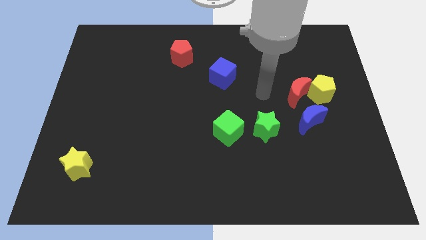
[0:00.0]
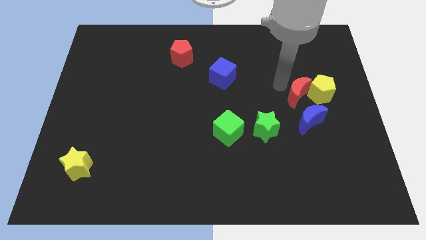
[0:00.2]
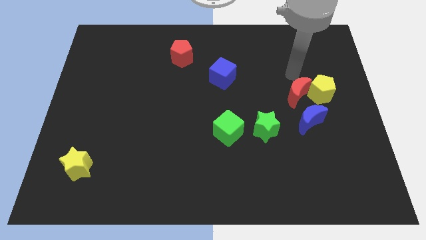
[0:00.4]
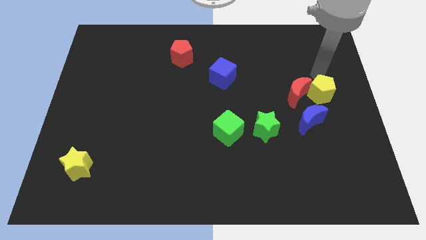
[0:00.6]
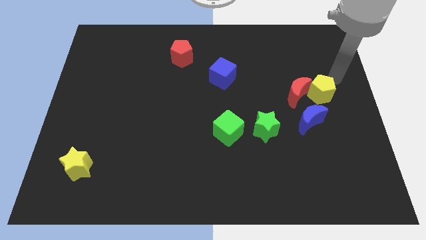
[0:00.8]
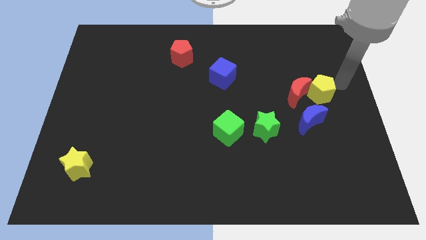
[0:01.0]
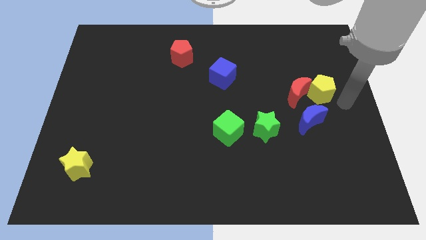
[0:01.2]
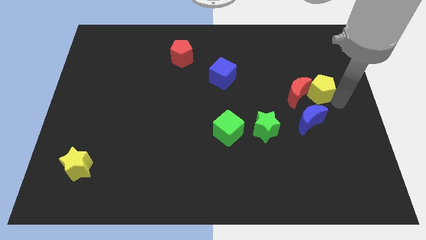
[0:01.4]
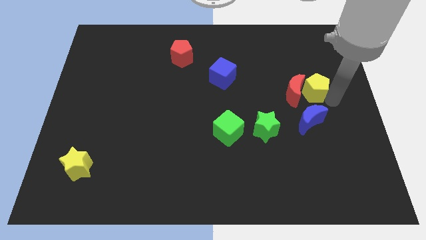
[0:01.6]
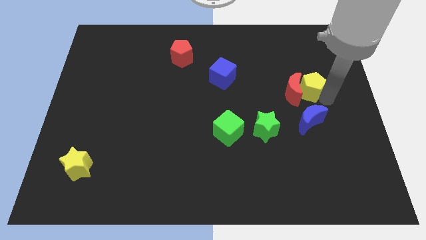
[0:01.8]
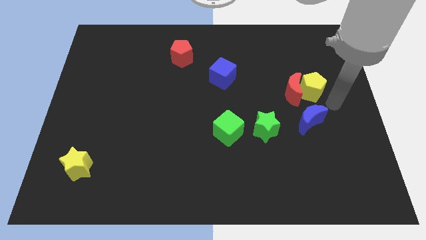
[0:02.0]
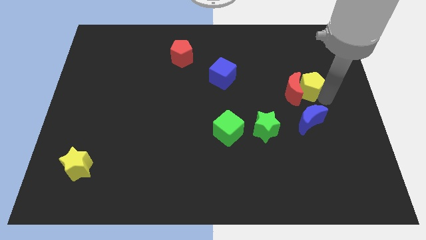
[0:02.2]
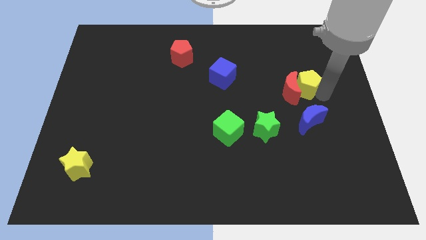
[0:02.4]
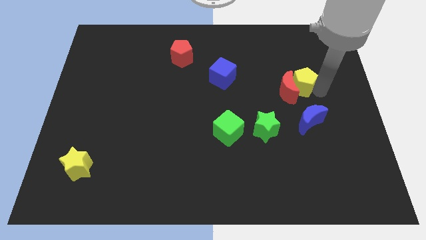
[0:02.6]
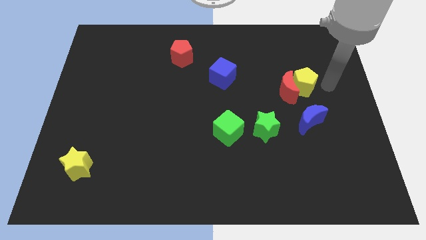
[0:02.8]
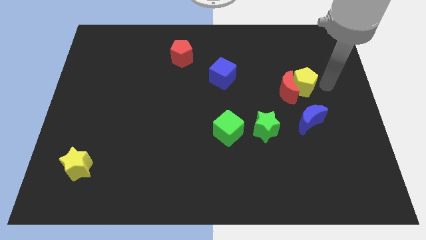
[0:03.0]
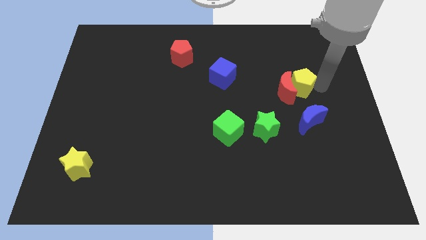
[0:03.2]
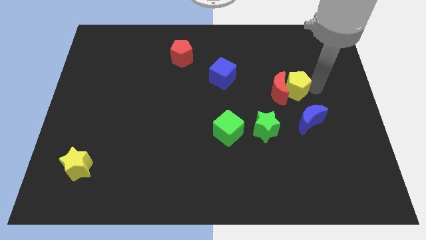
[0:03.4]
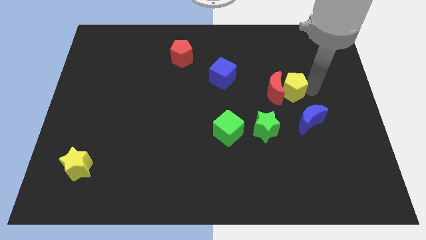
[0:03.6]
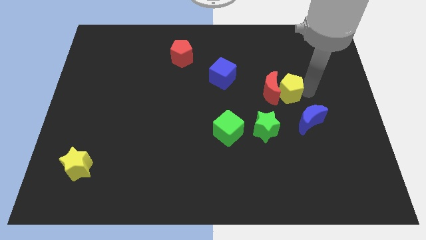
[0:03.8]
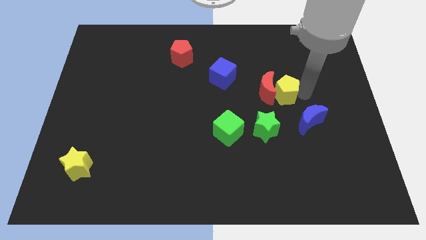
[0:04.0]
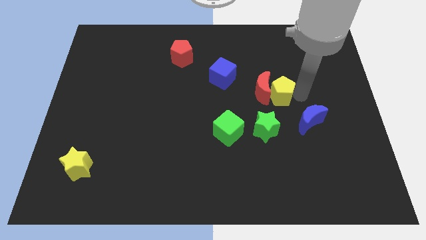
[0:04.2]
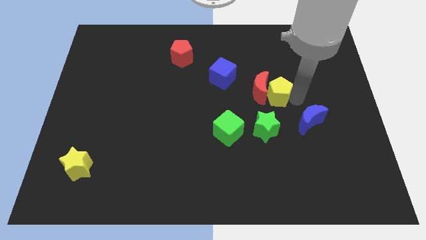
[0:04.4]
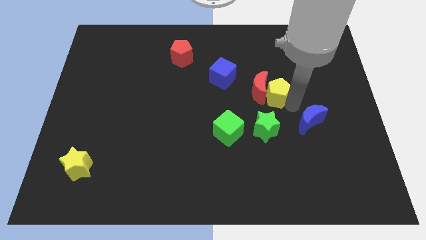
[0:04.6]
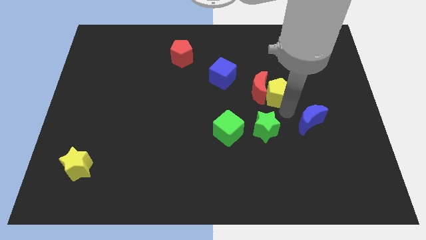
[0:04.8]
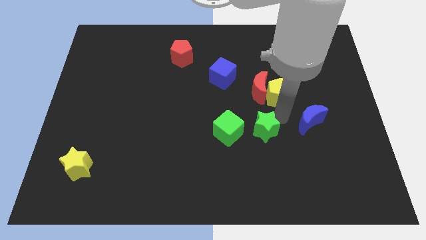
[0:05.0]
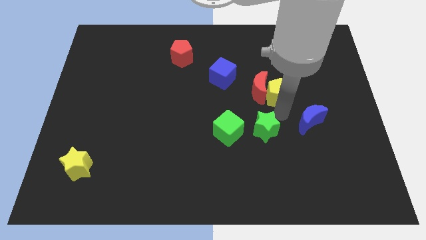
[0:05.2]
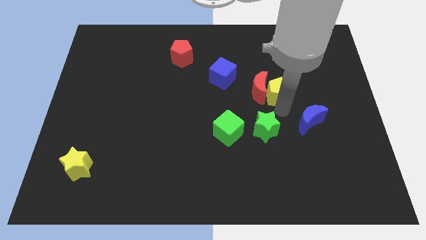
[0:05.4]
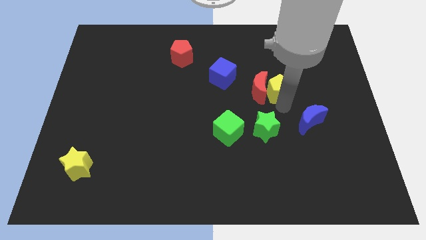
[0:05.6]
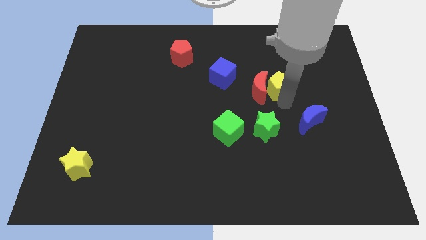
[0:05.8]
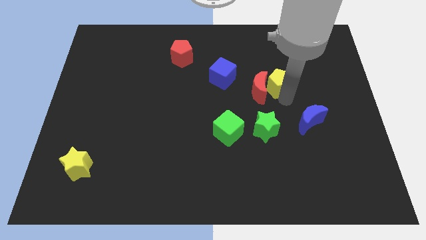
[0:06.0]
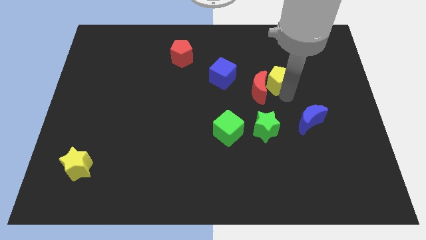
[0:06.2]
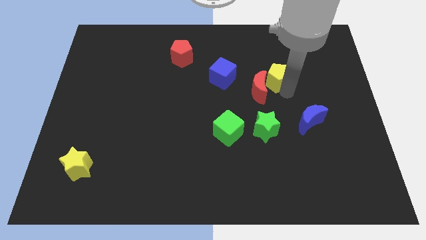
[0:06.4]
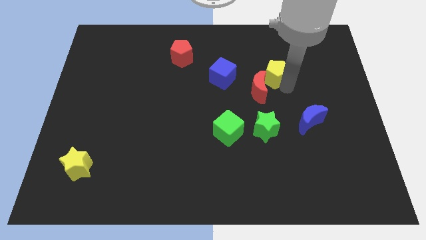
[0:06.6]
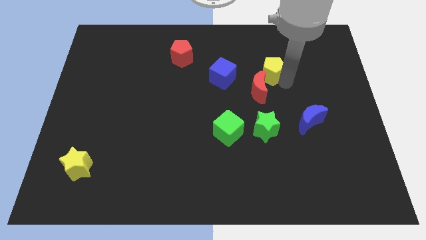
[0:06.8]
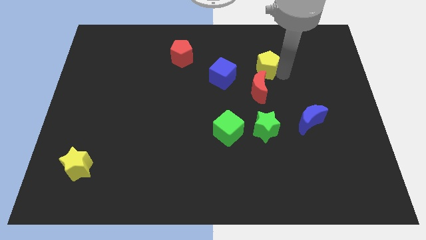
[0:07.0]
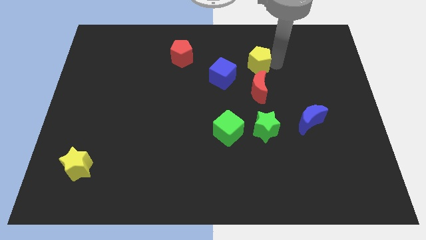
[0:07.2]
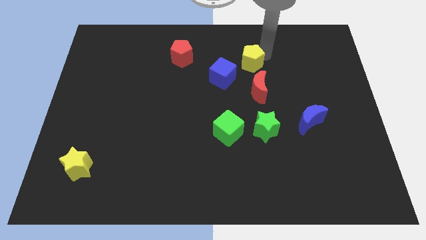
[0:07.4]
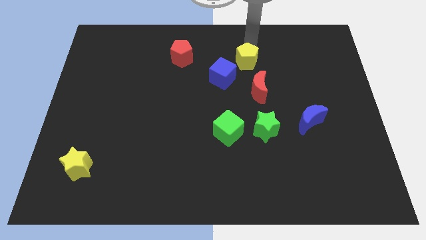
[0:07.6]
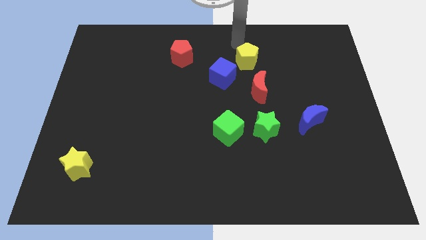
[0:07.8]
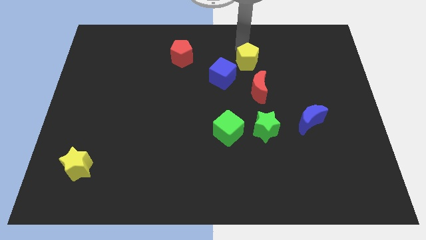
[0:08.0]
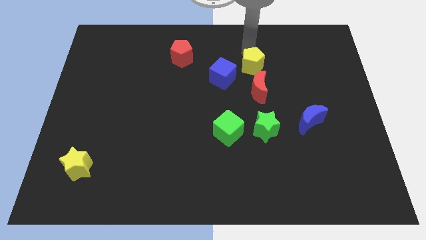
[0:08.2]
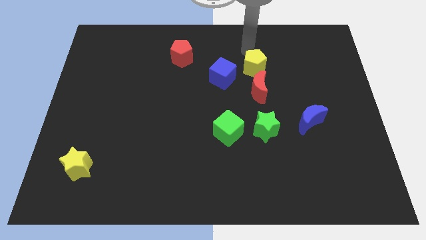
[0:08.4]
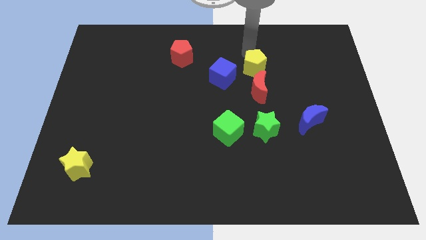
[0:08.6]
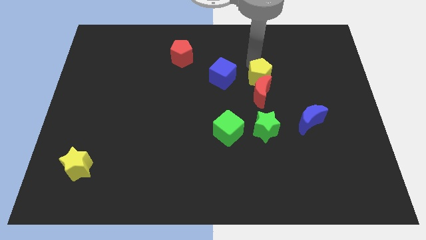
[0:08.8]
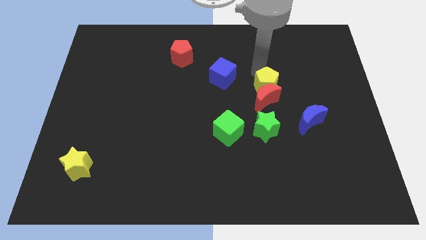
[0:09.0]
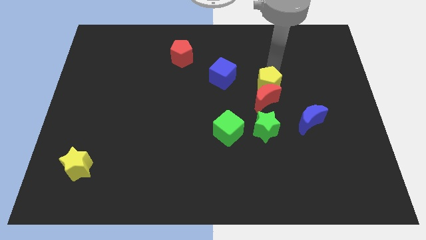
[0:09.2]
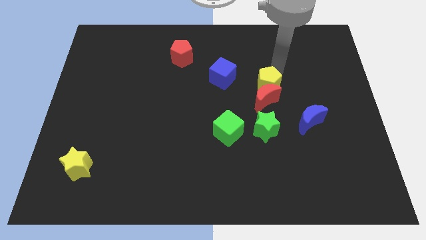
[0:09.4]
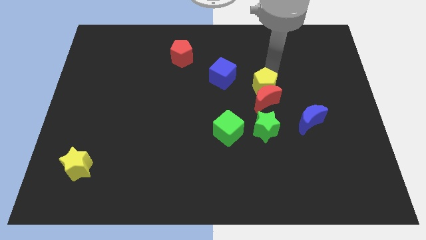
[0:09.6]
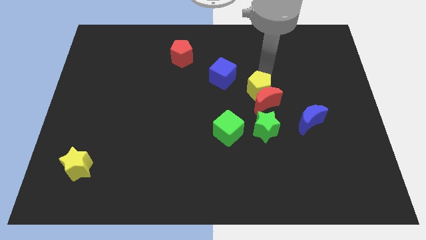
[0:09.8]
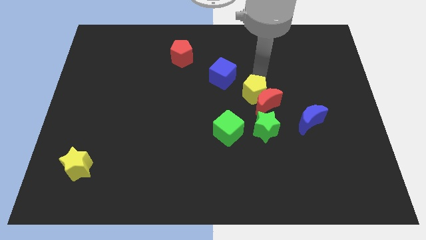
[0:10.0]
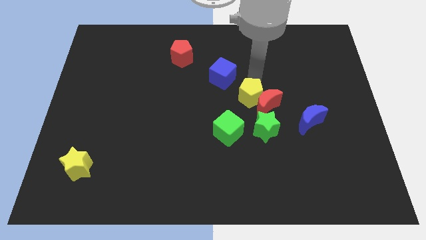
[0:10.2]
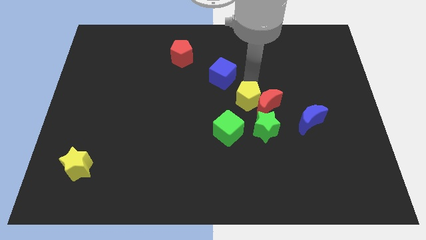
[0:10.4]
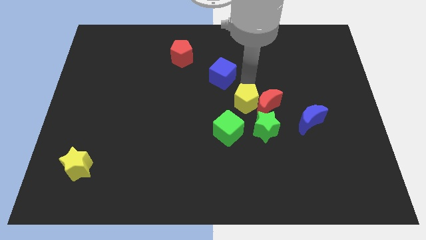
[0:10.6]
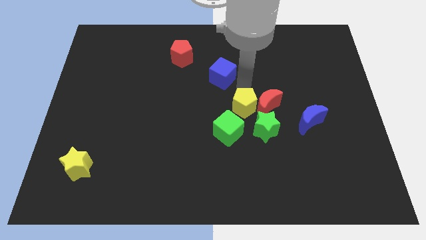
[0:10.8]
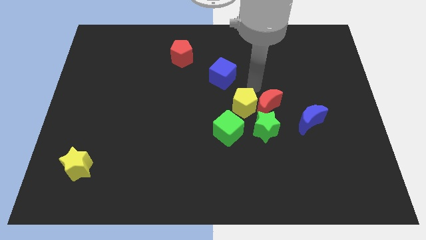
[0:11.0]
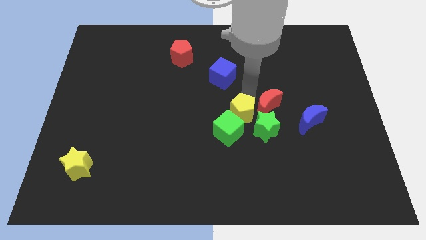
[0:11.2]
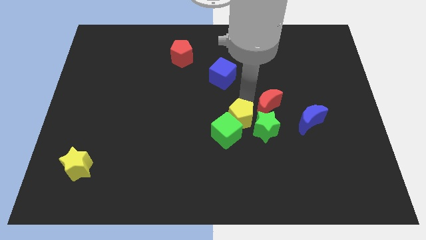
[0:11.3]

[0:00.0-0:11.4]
move the yellow pentagon to the green cube

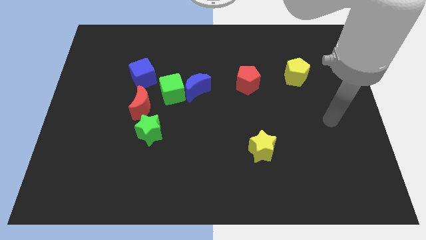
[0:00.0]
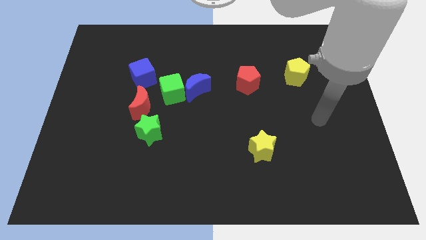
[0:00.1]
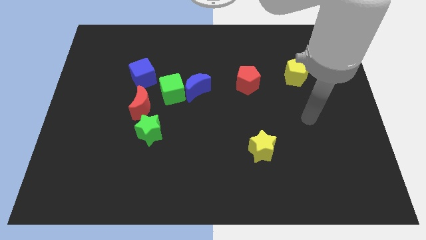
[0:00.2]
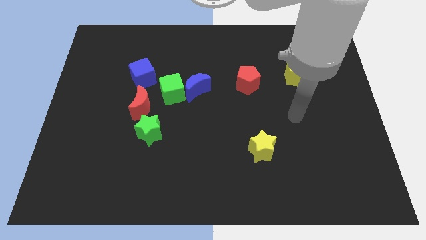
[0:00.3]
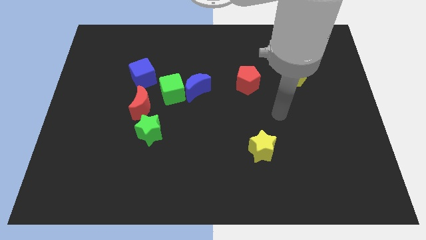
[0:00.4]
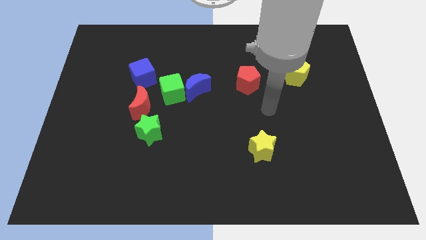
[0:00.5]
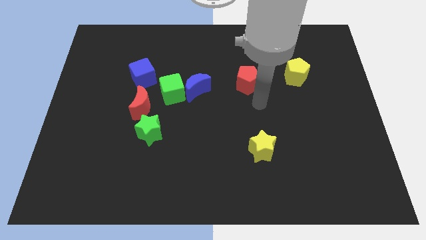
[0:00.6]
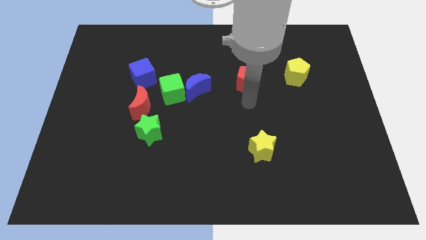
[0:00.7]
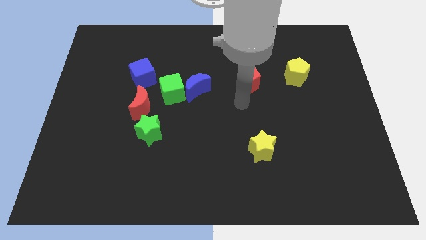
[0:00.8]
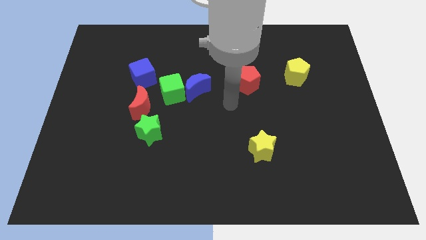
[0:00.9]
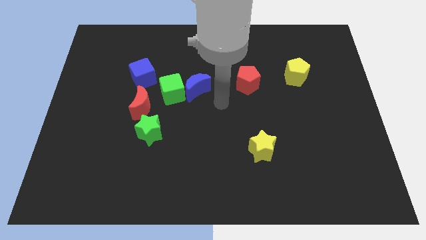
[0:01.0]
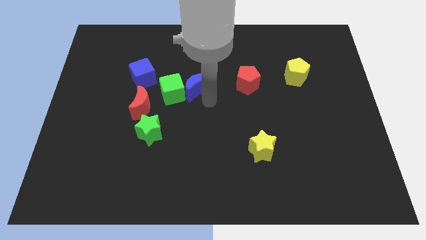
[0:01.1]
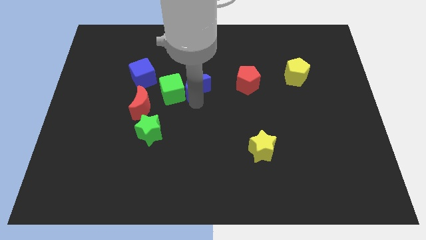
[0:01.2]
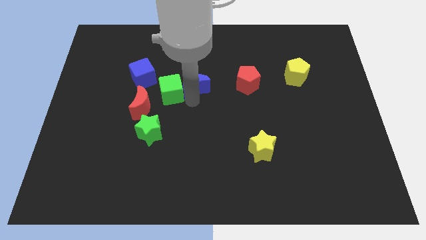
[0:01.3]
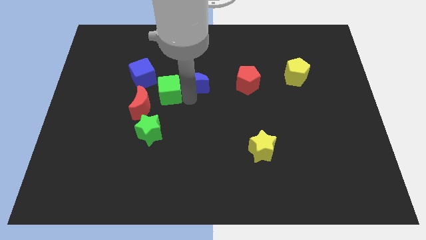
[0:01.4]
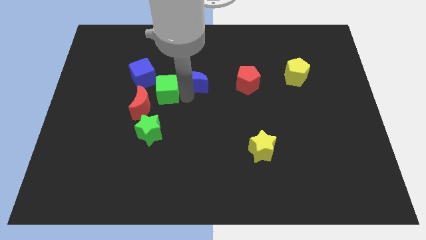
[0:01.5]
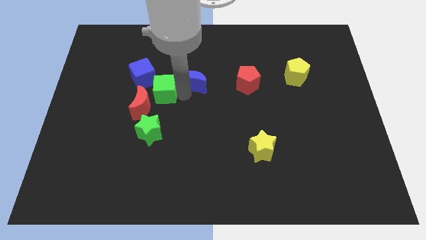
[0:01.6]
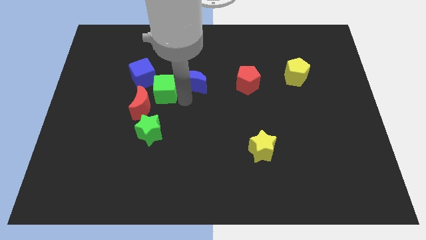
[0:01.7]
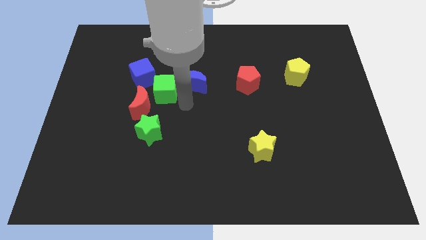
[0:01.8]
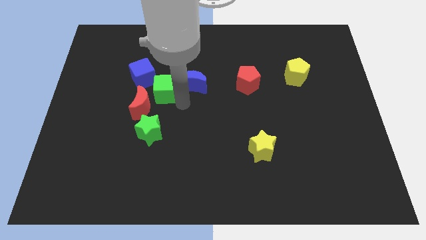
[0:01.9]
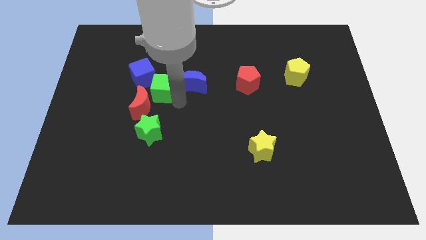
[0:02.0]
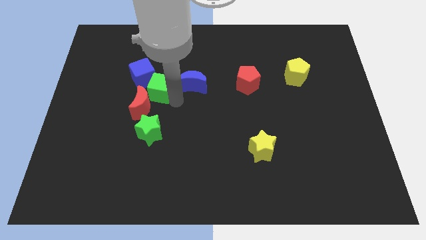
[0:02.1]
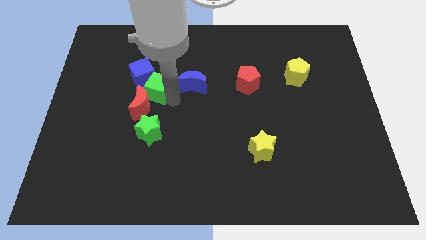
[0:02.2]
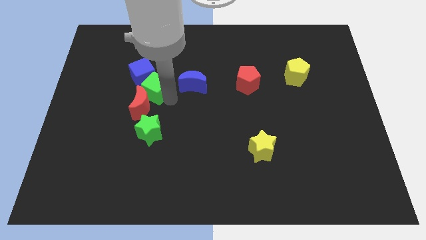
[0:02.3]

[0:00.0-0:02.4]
put the green cube to the blue cube
